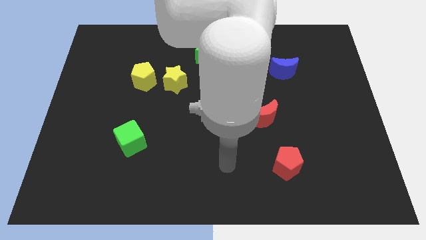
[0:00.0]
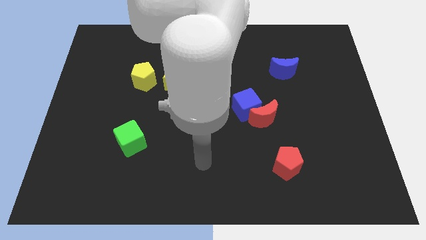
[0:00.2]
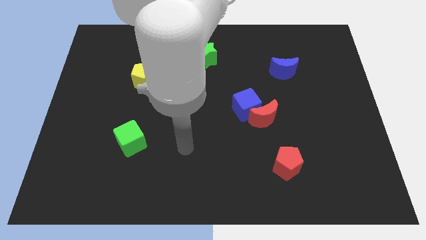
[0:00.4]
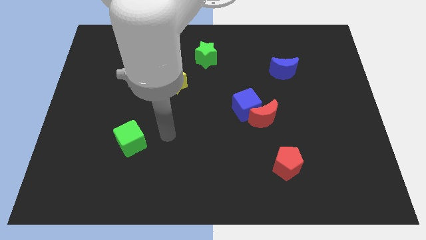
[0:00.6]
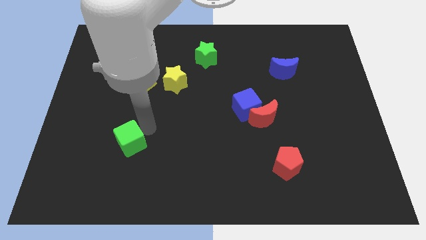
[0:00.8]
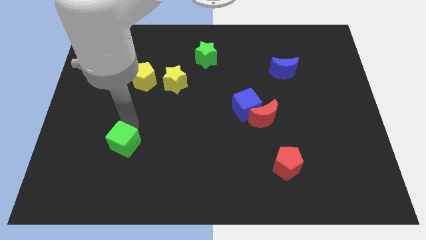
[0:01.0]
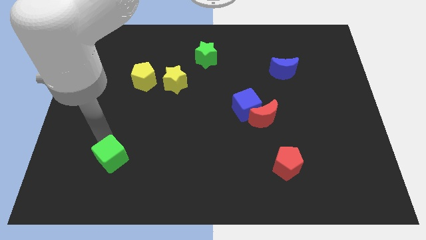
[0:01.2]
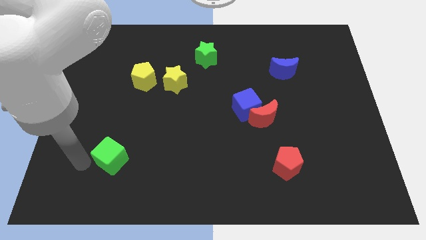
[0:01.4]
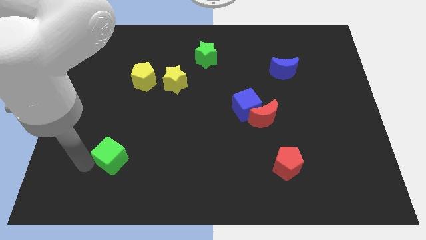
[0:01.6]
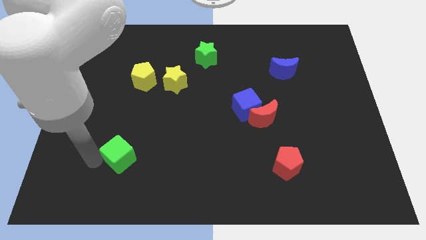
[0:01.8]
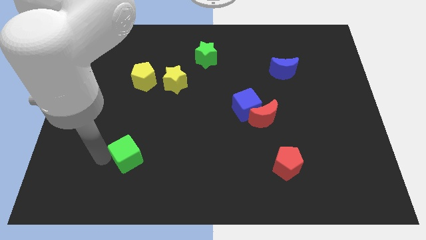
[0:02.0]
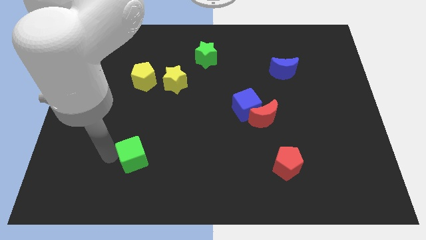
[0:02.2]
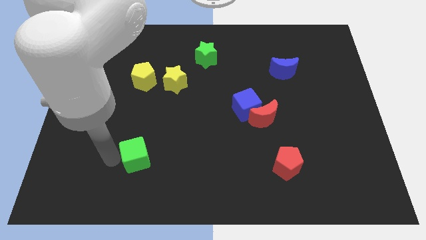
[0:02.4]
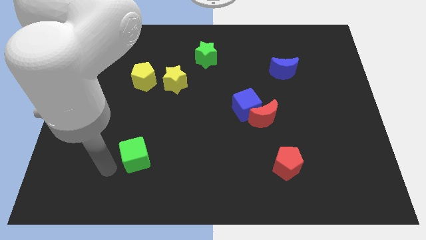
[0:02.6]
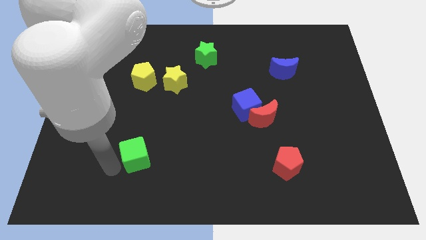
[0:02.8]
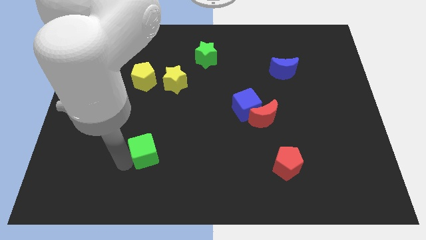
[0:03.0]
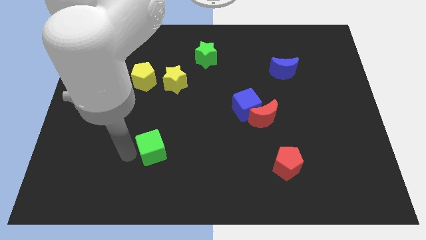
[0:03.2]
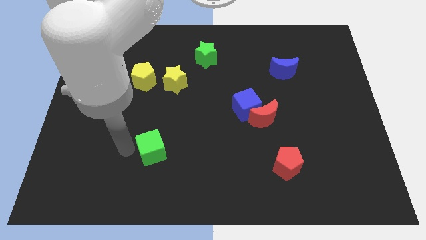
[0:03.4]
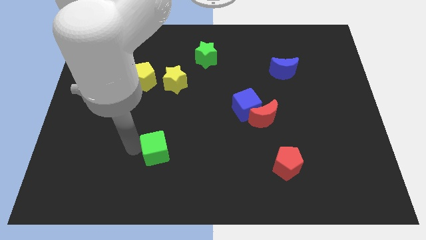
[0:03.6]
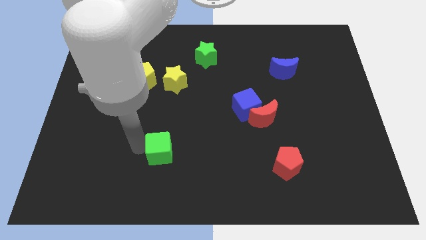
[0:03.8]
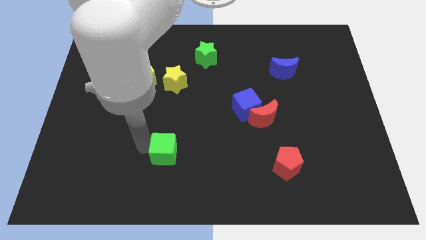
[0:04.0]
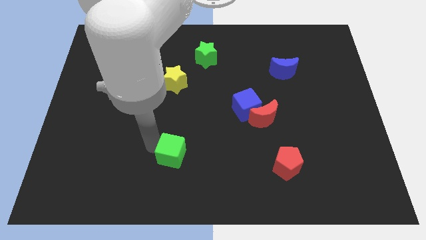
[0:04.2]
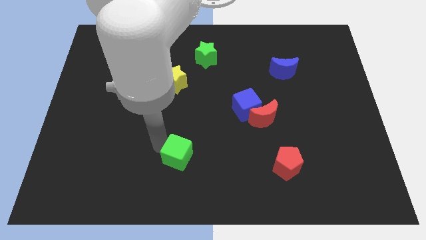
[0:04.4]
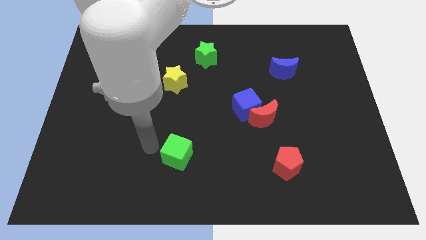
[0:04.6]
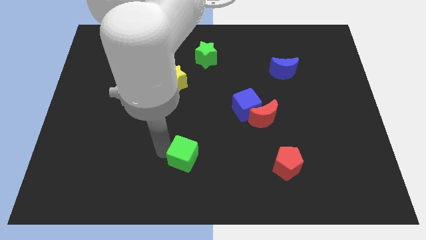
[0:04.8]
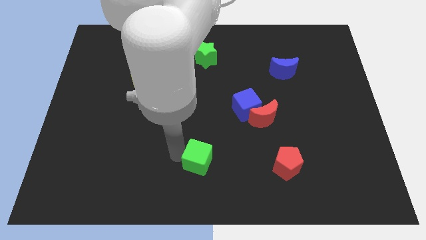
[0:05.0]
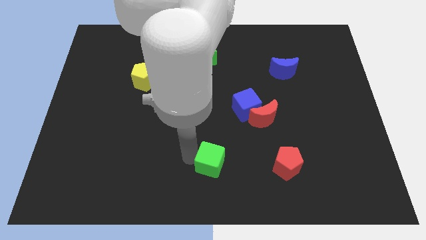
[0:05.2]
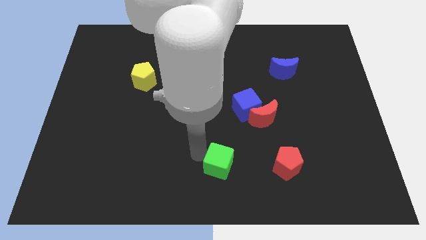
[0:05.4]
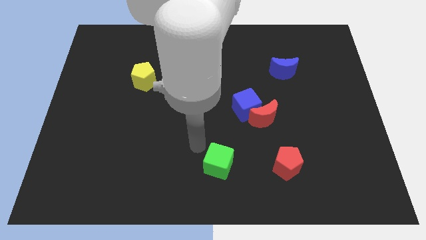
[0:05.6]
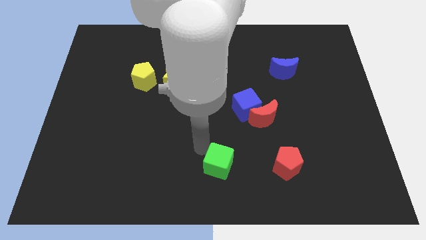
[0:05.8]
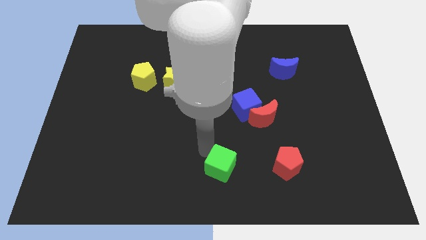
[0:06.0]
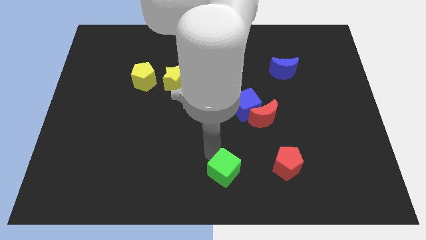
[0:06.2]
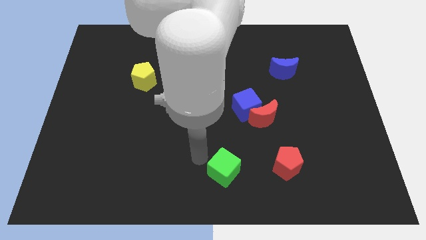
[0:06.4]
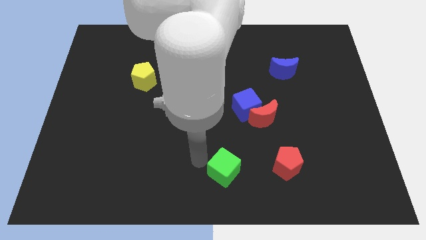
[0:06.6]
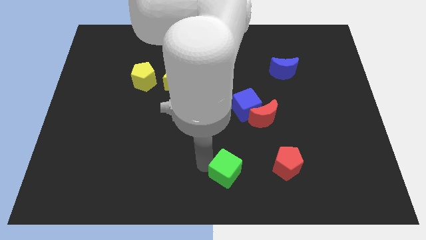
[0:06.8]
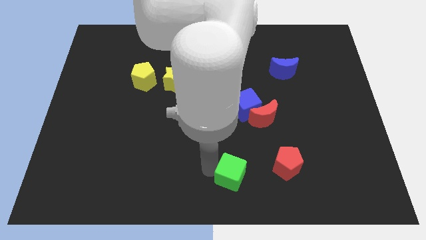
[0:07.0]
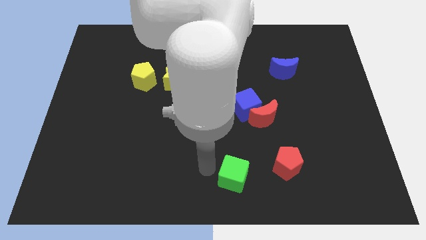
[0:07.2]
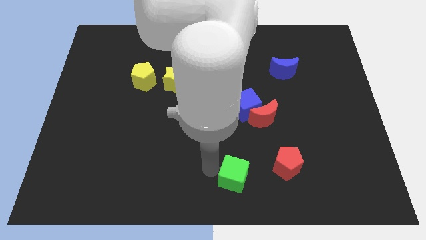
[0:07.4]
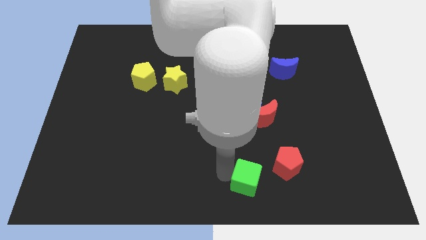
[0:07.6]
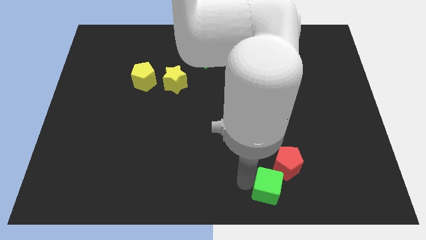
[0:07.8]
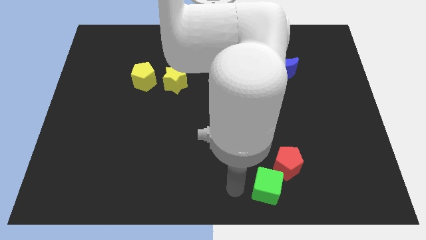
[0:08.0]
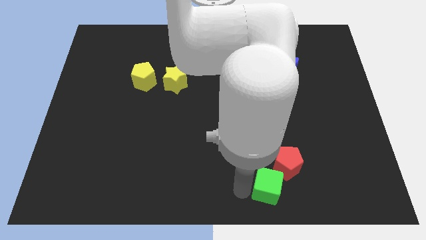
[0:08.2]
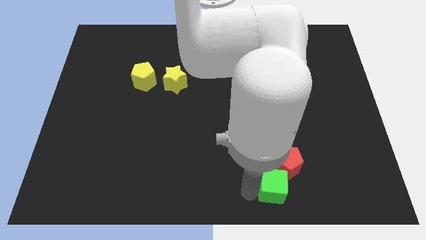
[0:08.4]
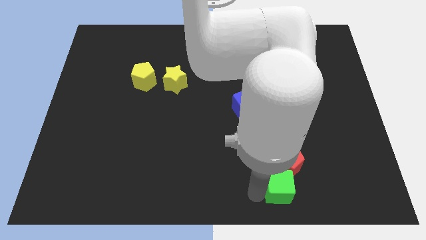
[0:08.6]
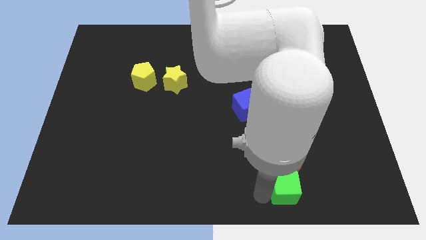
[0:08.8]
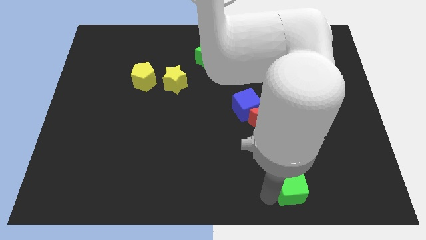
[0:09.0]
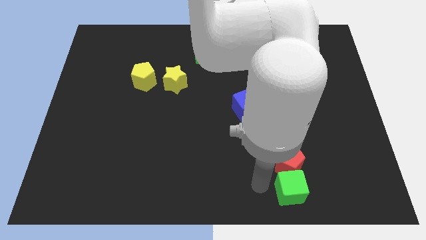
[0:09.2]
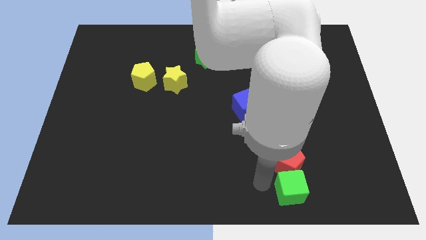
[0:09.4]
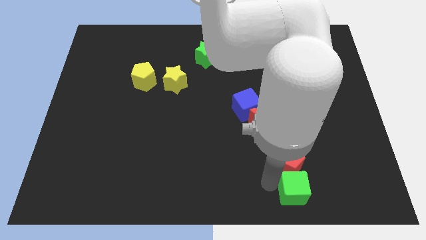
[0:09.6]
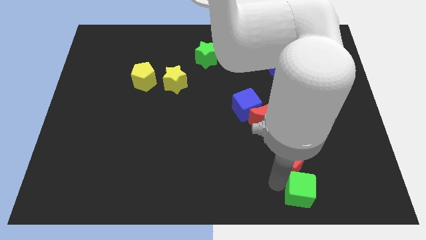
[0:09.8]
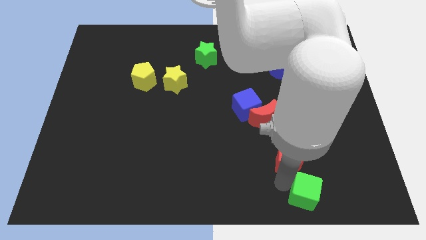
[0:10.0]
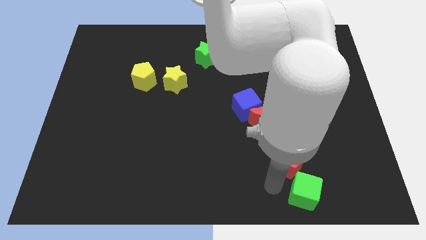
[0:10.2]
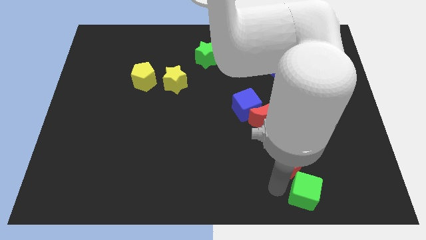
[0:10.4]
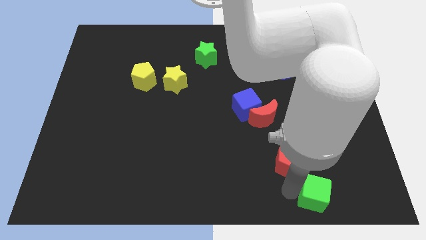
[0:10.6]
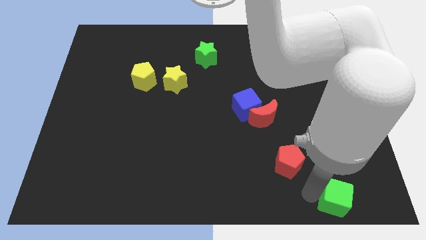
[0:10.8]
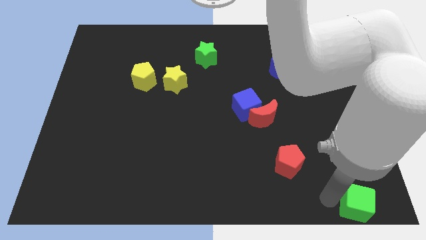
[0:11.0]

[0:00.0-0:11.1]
put the green cube to the bottom right corner

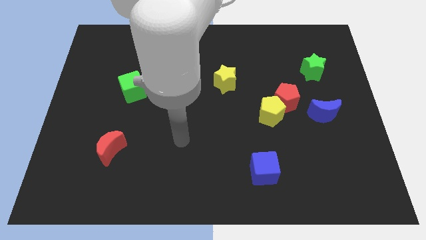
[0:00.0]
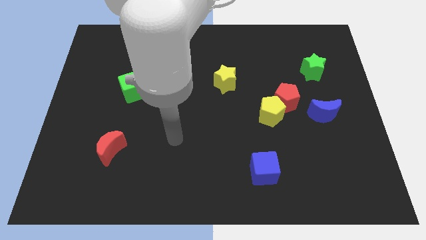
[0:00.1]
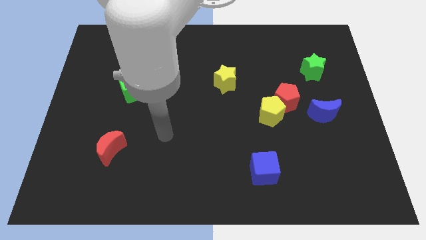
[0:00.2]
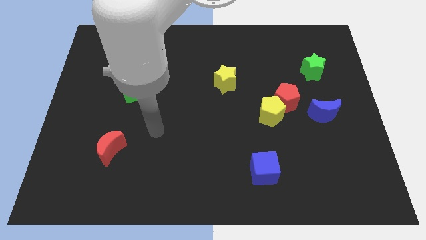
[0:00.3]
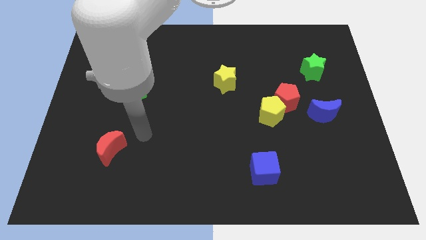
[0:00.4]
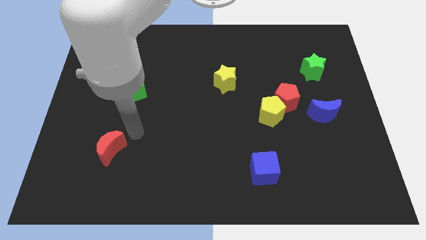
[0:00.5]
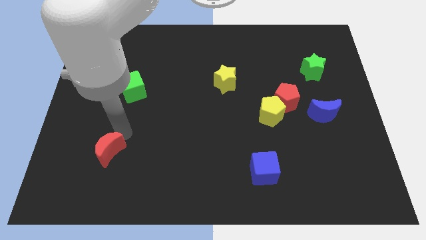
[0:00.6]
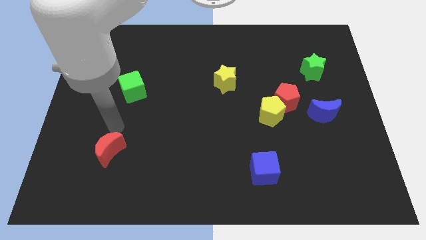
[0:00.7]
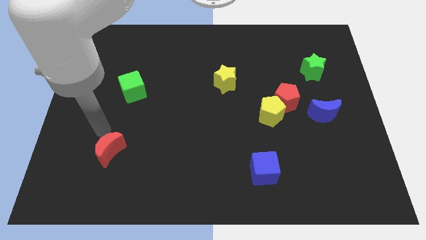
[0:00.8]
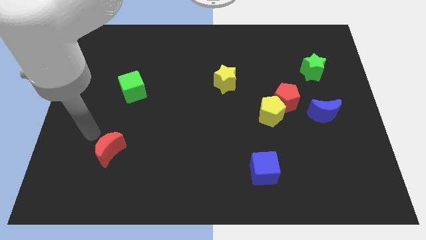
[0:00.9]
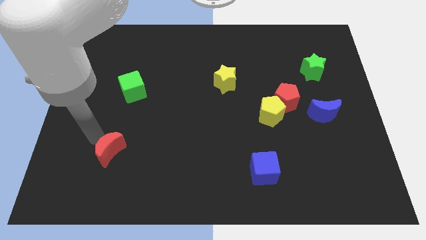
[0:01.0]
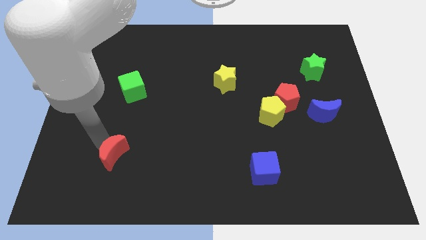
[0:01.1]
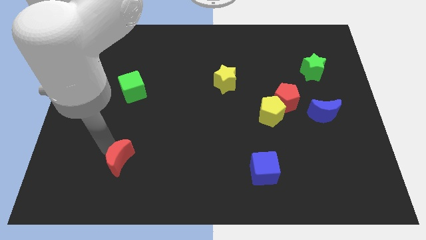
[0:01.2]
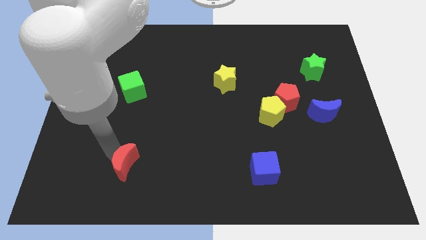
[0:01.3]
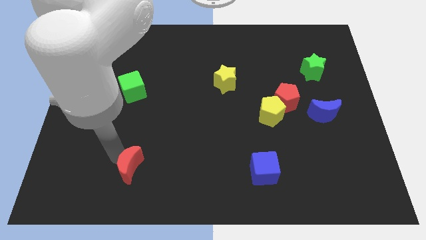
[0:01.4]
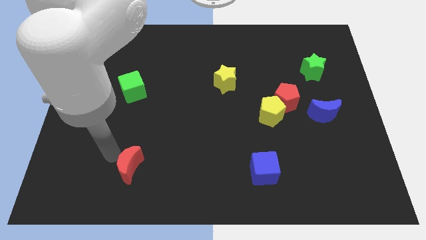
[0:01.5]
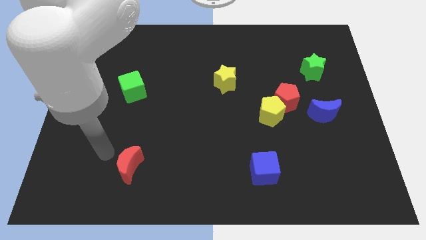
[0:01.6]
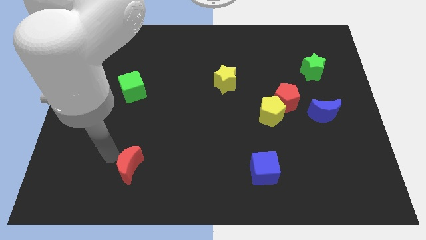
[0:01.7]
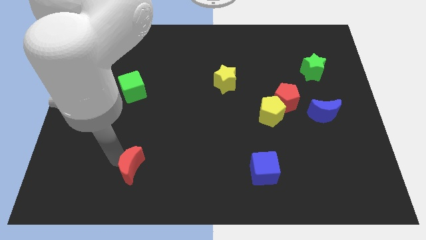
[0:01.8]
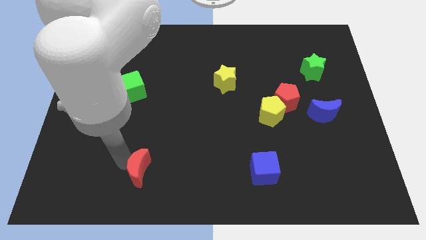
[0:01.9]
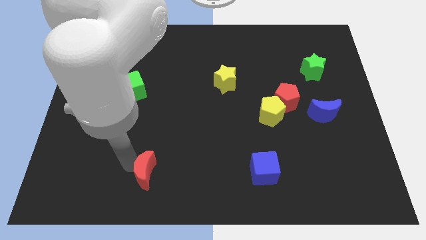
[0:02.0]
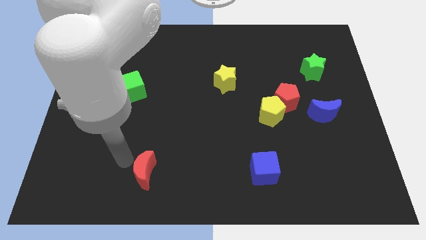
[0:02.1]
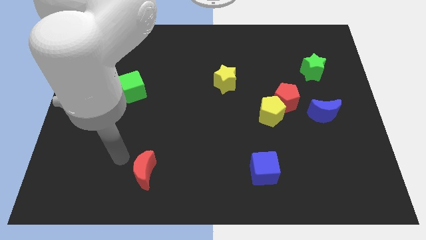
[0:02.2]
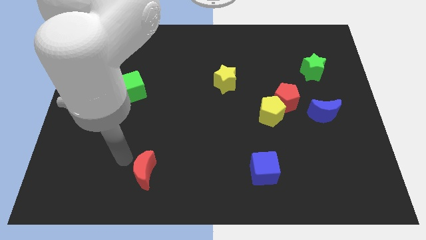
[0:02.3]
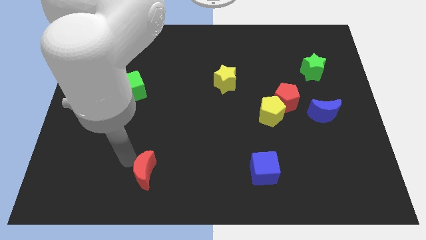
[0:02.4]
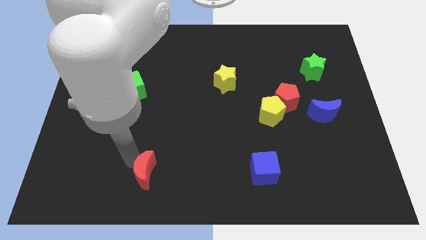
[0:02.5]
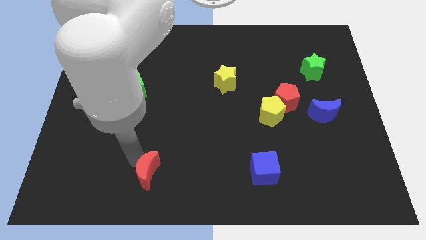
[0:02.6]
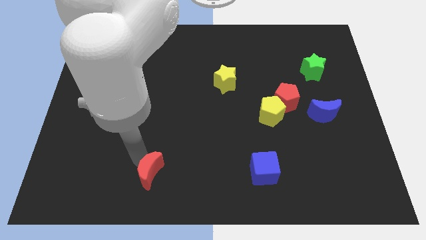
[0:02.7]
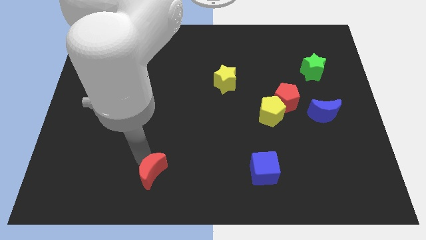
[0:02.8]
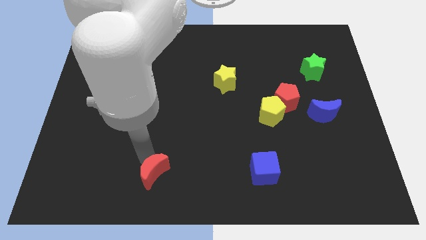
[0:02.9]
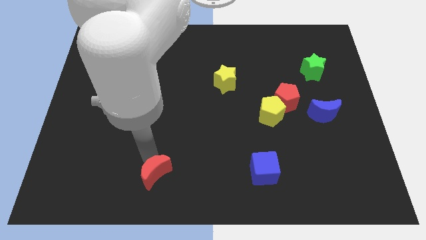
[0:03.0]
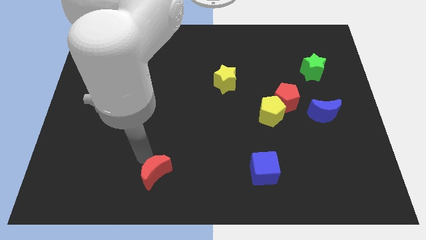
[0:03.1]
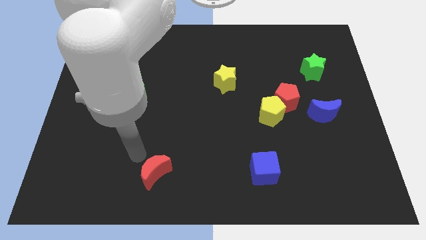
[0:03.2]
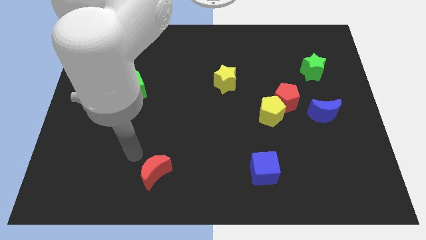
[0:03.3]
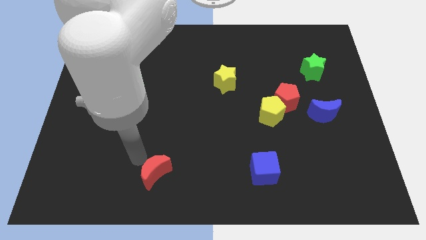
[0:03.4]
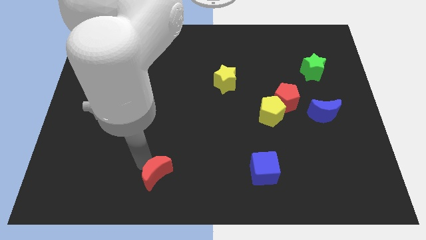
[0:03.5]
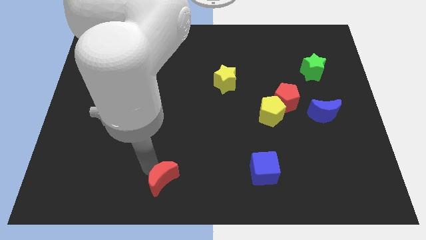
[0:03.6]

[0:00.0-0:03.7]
push the red moon to the bottom side
